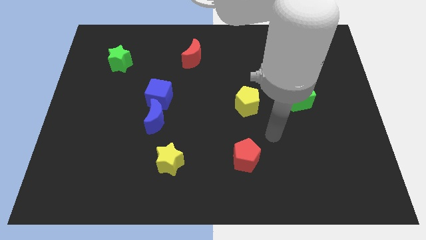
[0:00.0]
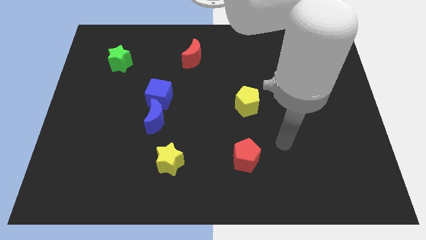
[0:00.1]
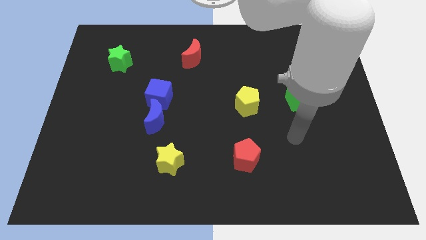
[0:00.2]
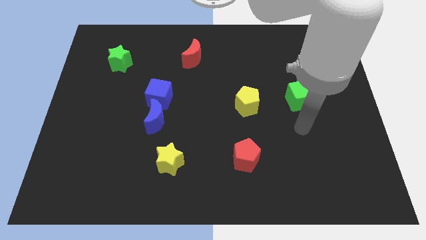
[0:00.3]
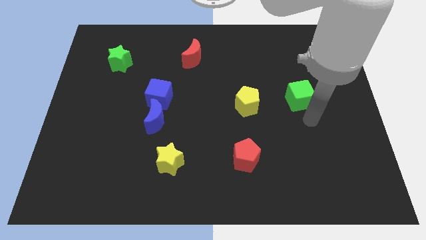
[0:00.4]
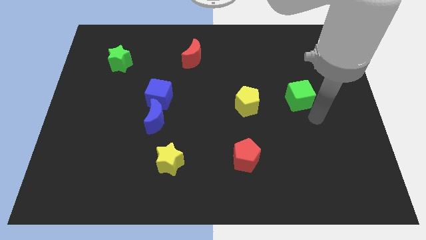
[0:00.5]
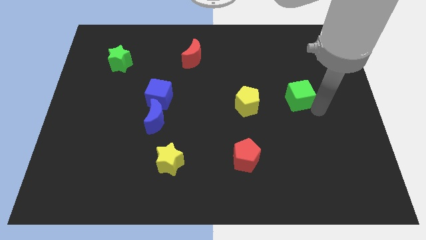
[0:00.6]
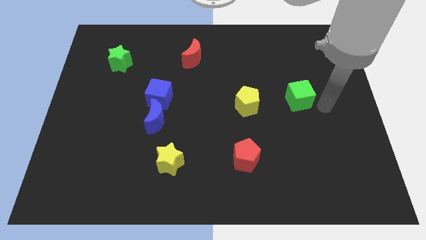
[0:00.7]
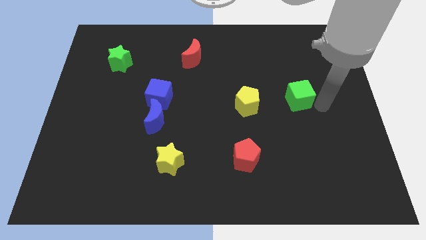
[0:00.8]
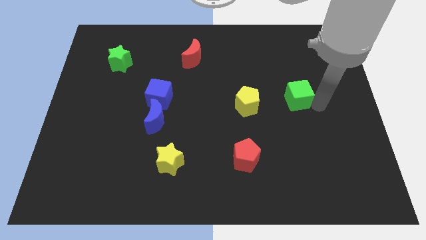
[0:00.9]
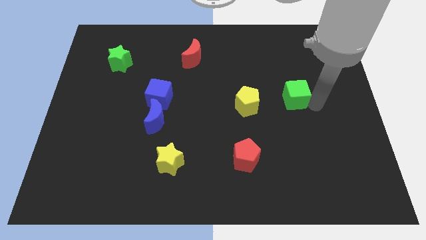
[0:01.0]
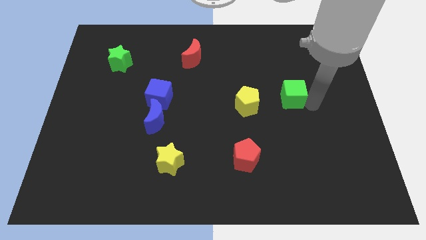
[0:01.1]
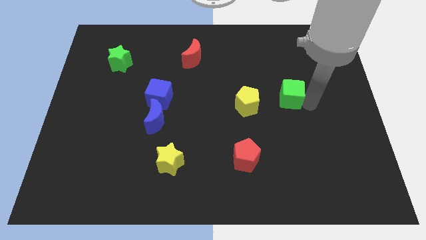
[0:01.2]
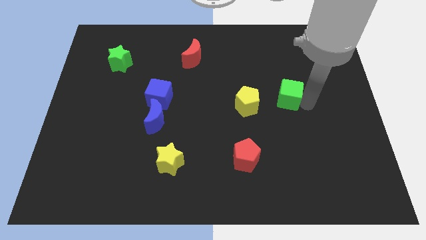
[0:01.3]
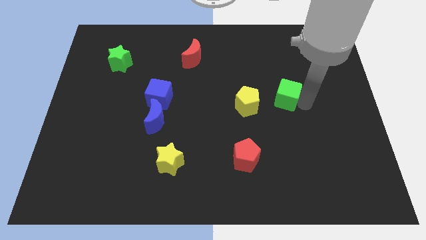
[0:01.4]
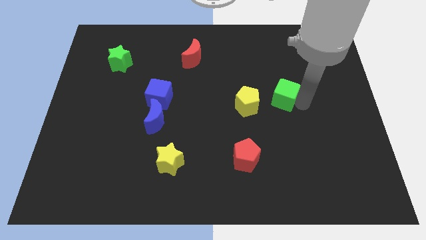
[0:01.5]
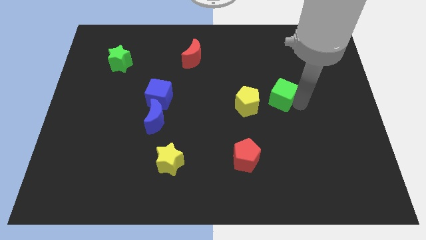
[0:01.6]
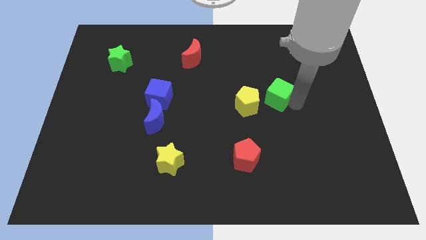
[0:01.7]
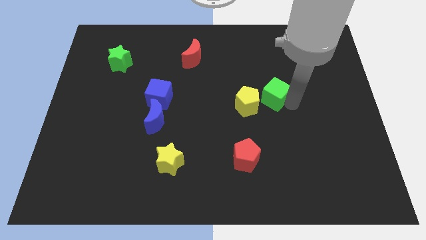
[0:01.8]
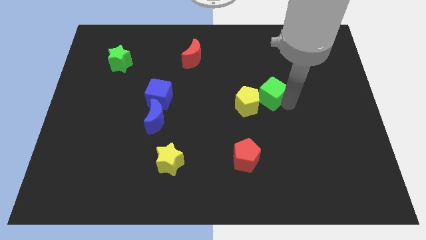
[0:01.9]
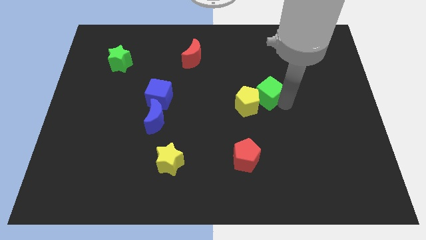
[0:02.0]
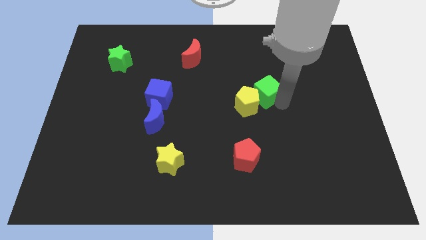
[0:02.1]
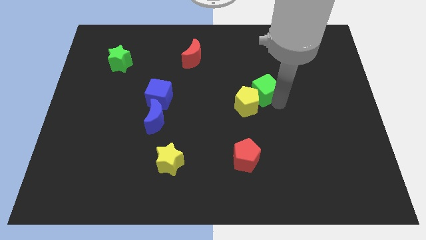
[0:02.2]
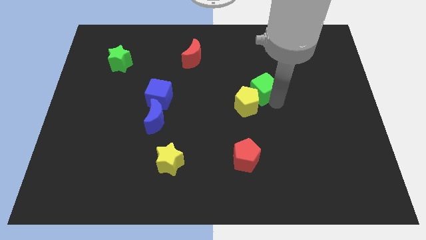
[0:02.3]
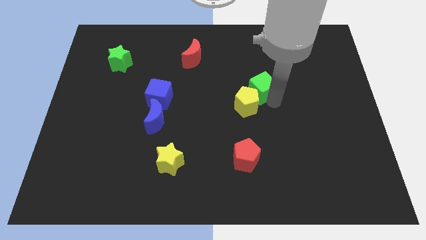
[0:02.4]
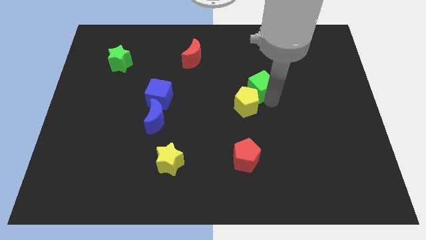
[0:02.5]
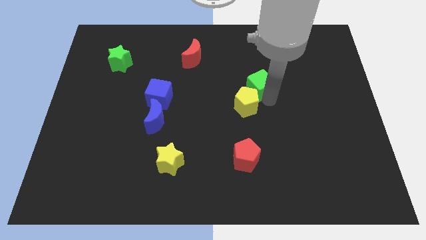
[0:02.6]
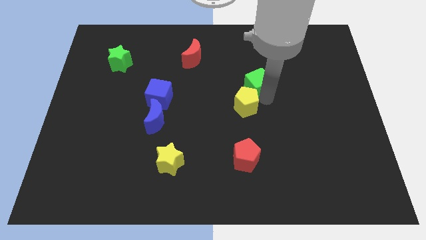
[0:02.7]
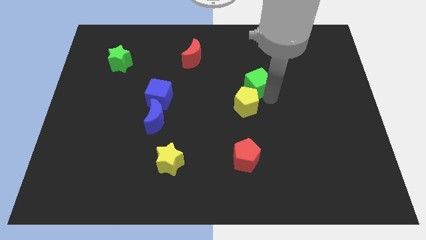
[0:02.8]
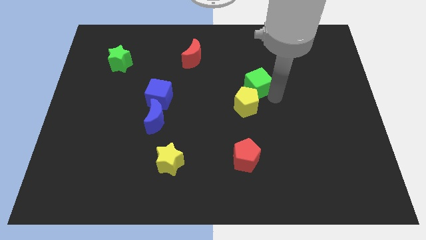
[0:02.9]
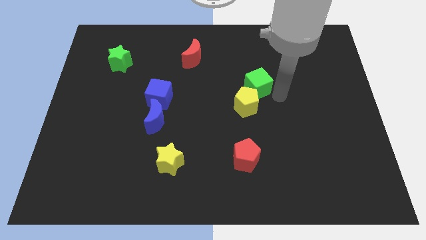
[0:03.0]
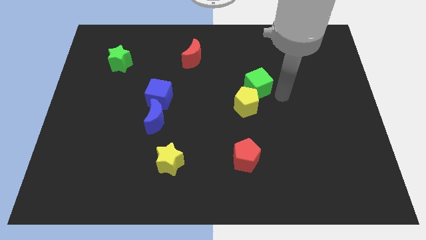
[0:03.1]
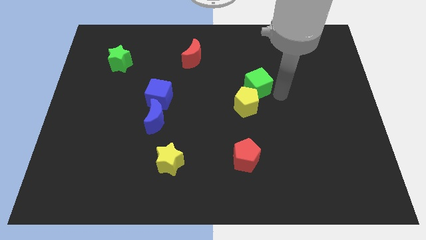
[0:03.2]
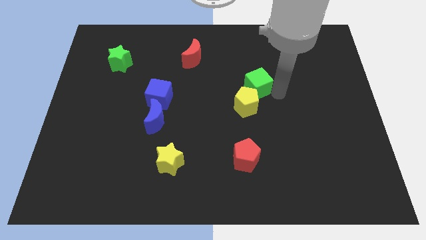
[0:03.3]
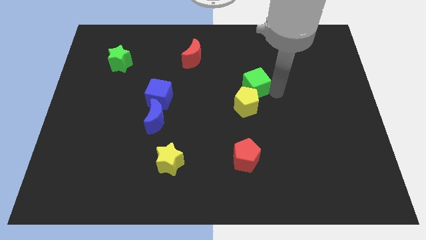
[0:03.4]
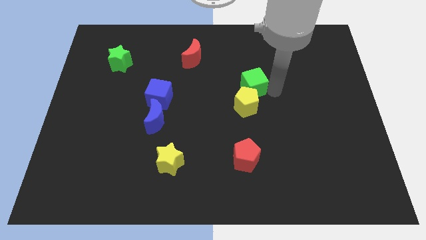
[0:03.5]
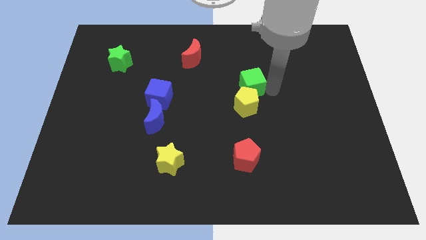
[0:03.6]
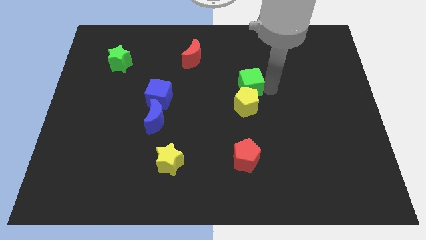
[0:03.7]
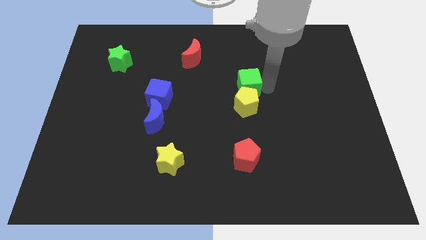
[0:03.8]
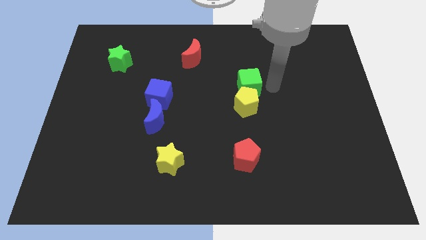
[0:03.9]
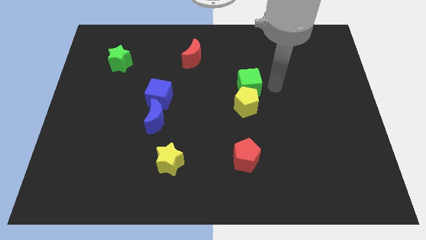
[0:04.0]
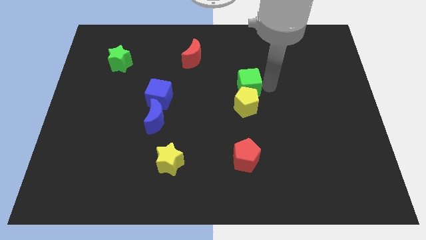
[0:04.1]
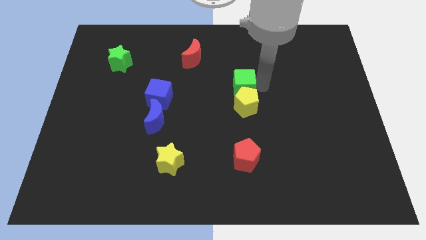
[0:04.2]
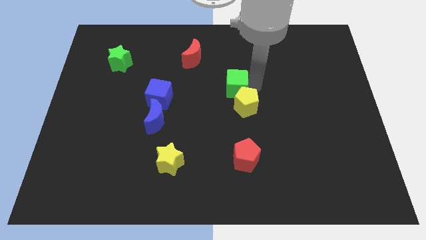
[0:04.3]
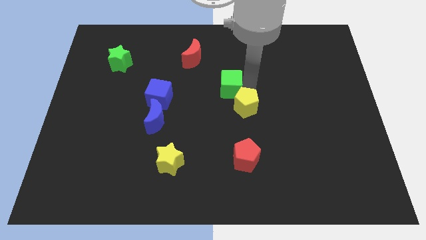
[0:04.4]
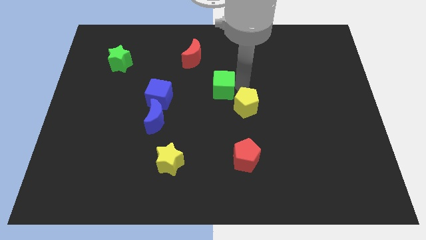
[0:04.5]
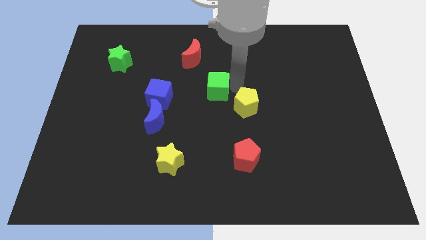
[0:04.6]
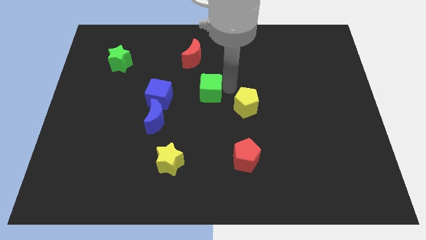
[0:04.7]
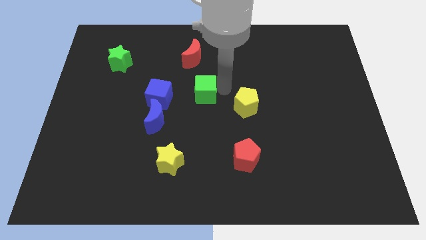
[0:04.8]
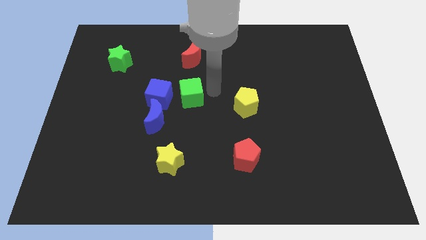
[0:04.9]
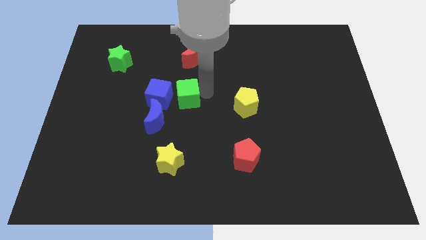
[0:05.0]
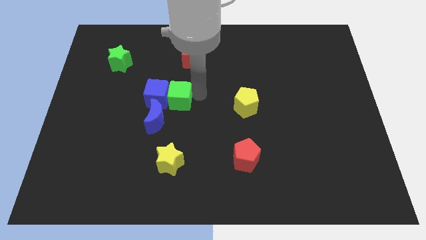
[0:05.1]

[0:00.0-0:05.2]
put the green cube close to the blue cube

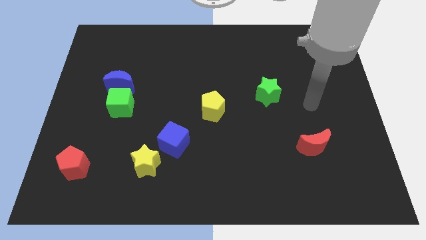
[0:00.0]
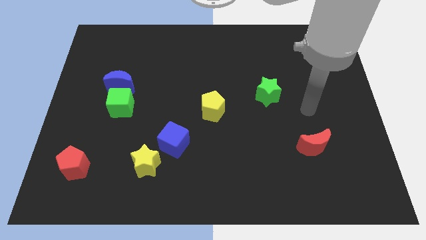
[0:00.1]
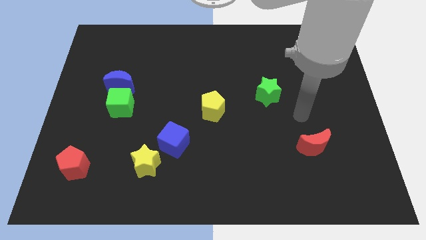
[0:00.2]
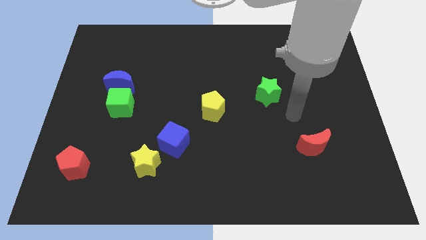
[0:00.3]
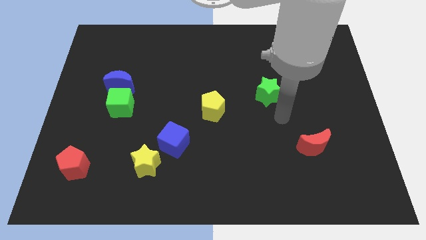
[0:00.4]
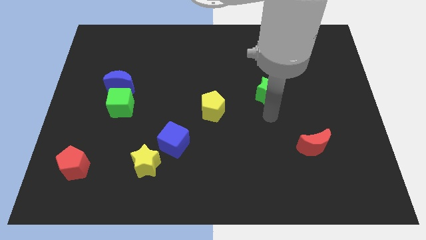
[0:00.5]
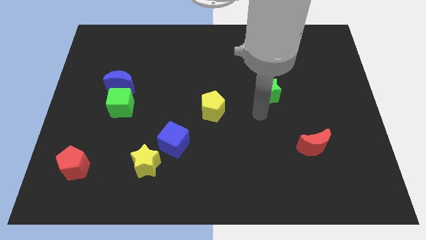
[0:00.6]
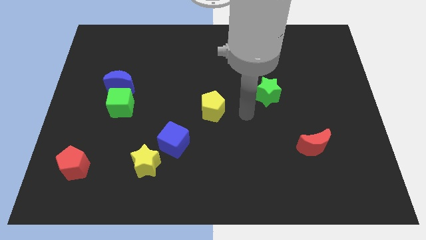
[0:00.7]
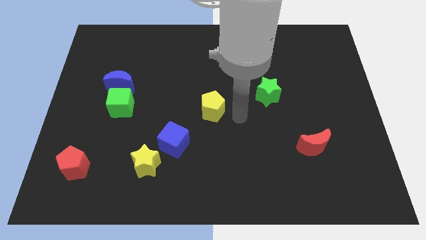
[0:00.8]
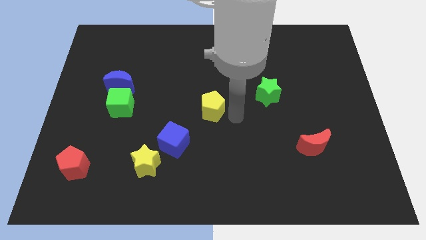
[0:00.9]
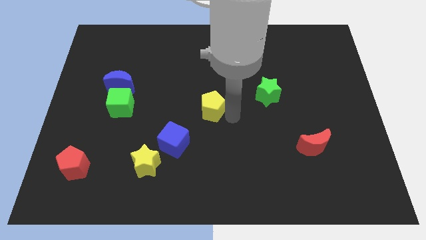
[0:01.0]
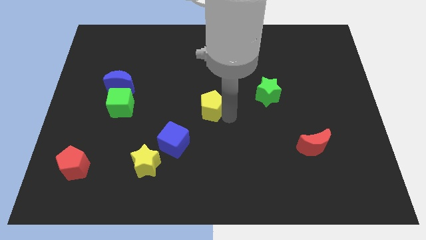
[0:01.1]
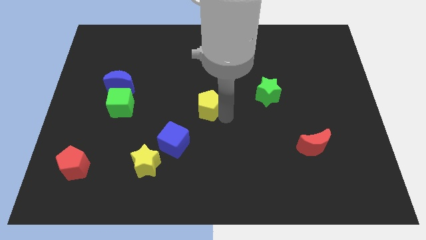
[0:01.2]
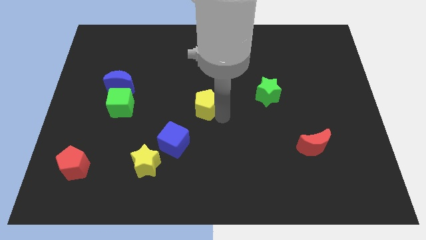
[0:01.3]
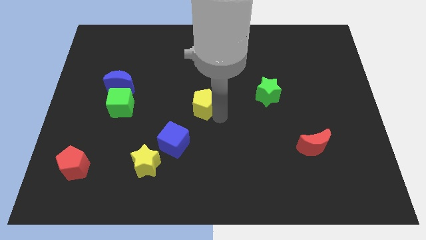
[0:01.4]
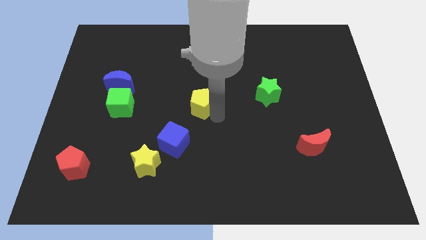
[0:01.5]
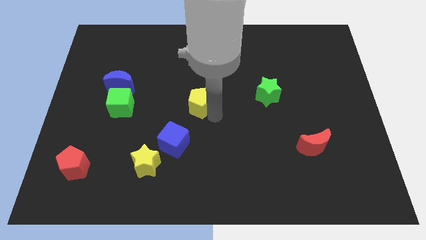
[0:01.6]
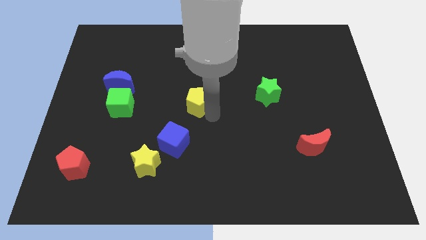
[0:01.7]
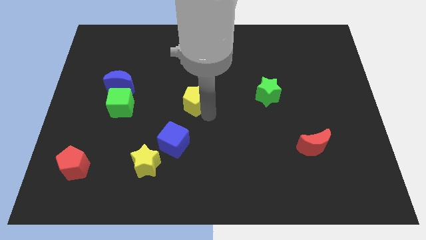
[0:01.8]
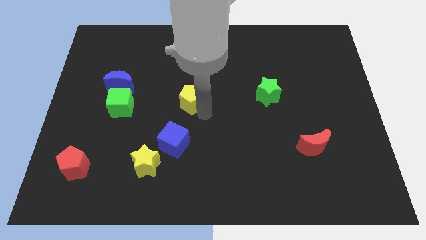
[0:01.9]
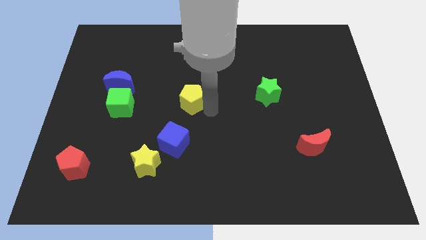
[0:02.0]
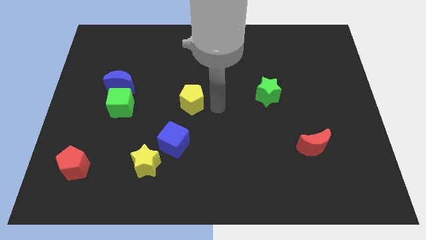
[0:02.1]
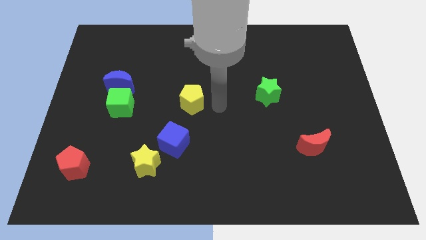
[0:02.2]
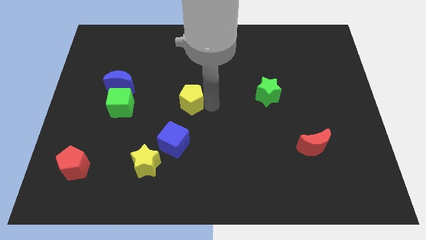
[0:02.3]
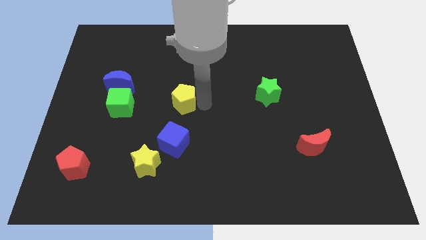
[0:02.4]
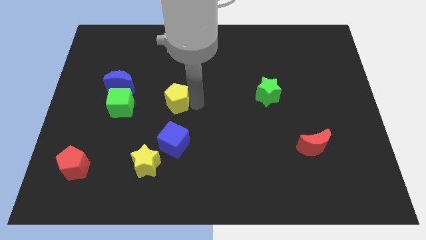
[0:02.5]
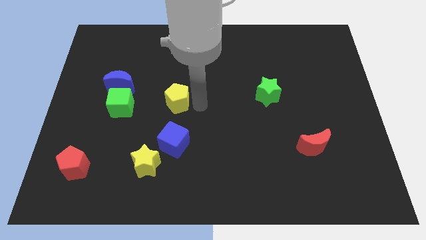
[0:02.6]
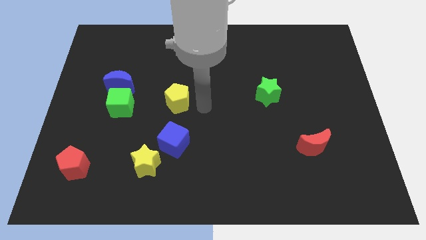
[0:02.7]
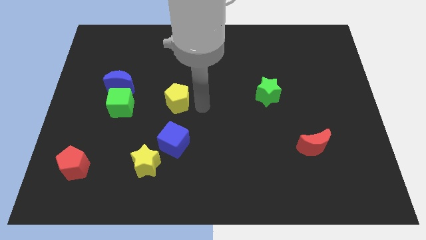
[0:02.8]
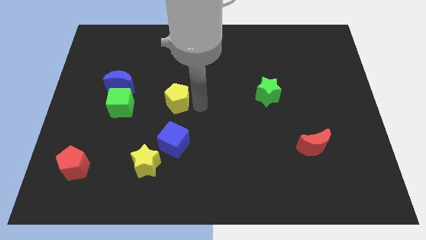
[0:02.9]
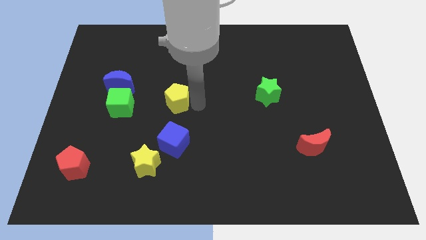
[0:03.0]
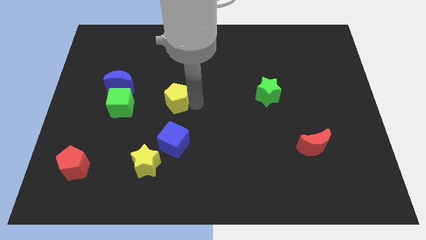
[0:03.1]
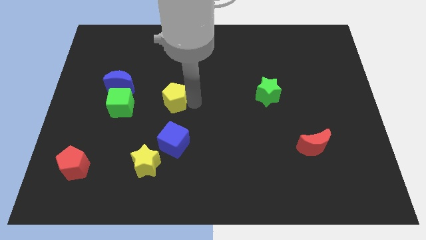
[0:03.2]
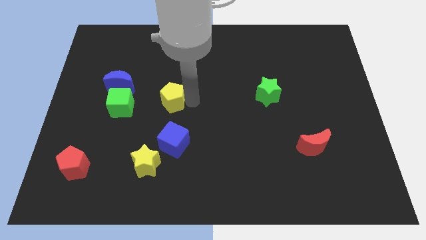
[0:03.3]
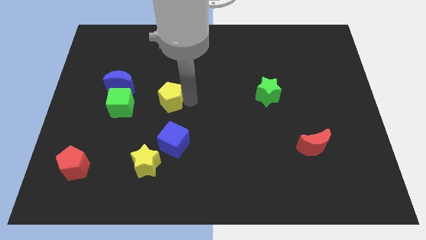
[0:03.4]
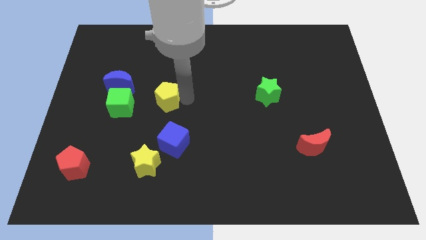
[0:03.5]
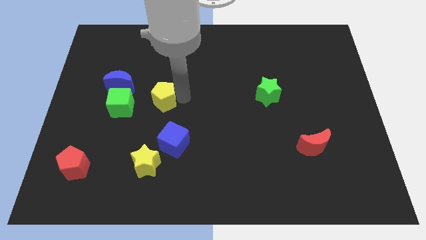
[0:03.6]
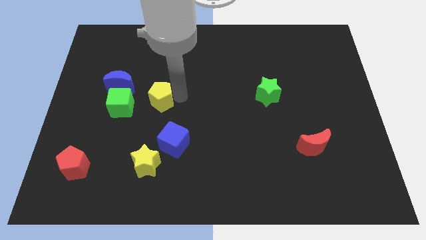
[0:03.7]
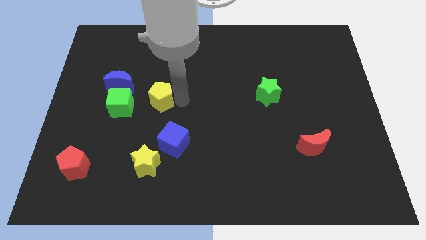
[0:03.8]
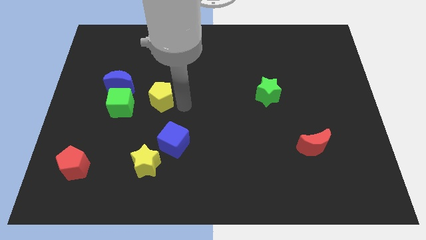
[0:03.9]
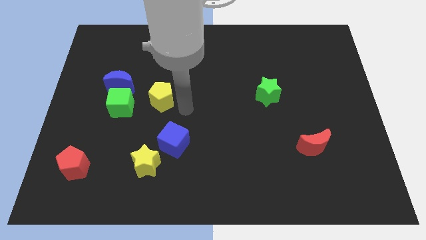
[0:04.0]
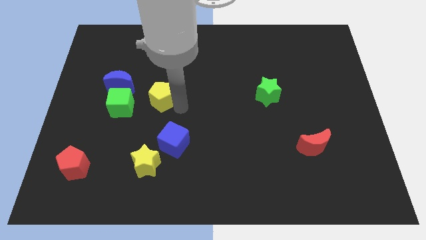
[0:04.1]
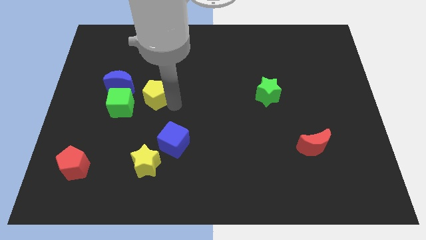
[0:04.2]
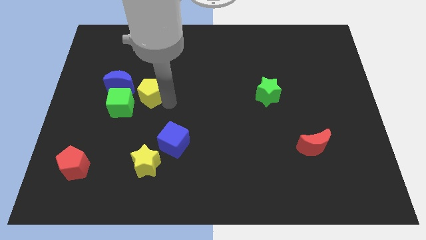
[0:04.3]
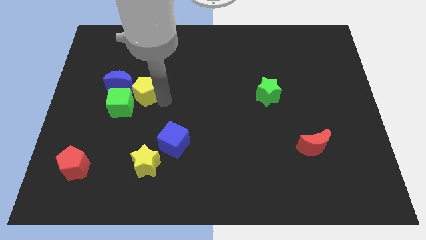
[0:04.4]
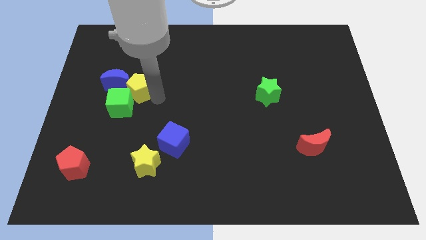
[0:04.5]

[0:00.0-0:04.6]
slide the yellow pentagon next to the blue moon
